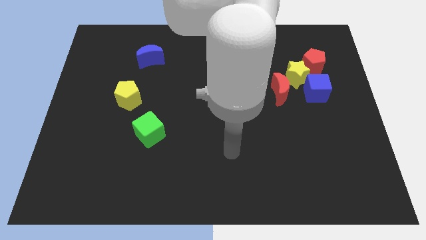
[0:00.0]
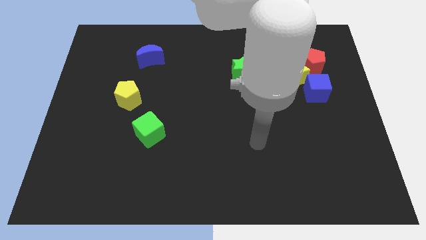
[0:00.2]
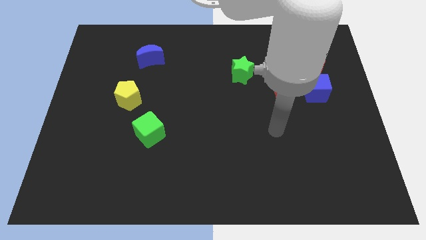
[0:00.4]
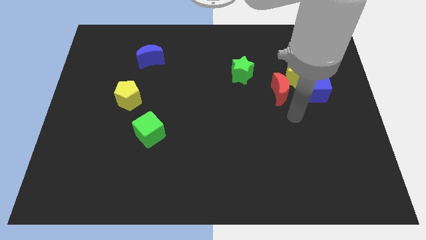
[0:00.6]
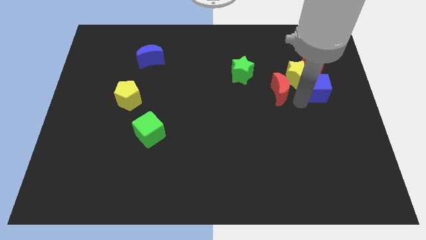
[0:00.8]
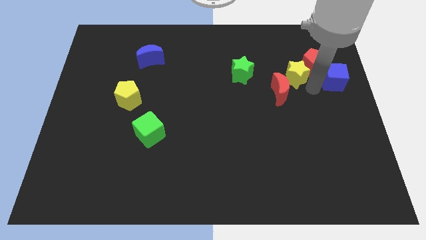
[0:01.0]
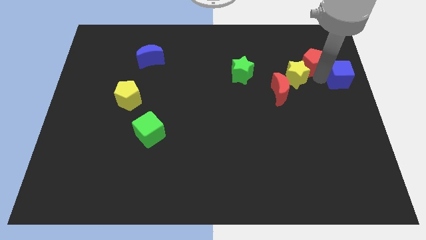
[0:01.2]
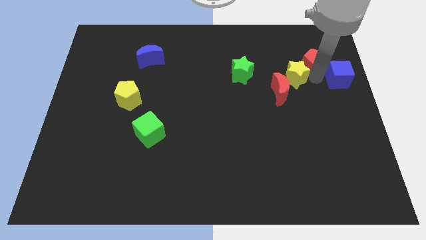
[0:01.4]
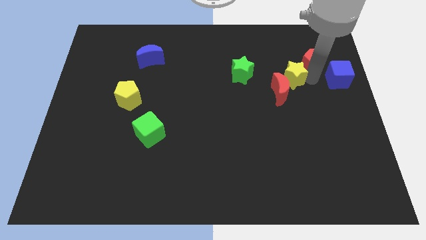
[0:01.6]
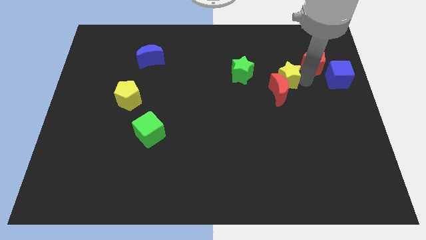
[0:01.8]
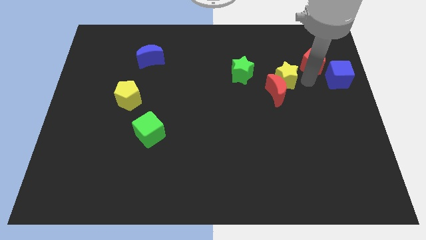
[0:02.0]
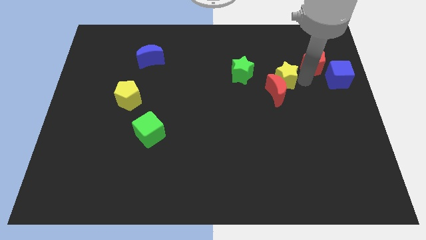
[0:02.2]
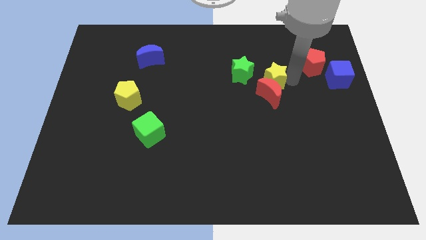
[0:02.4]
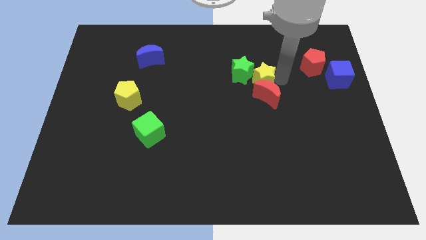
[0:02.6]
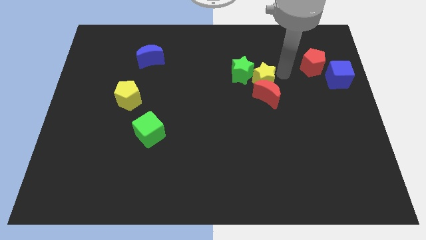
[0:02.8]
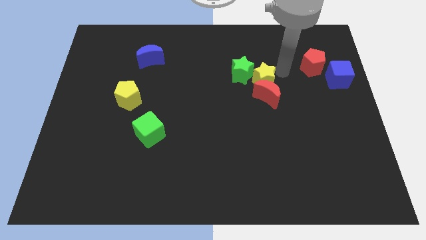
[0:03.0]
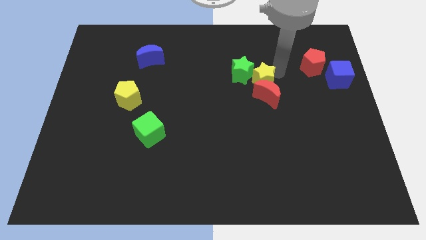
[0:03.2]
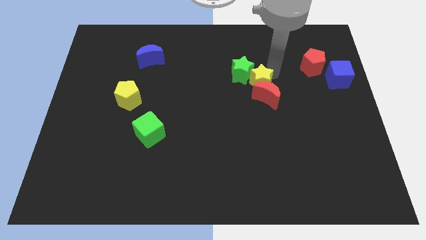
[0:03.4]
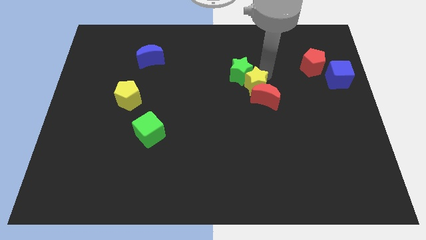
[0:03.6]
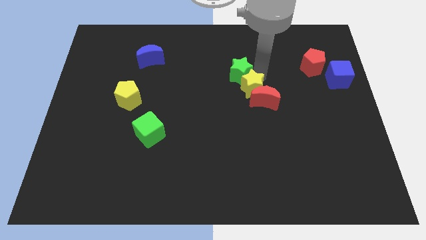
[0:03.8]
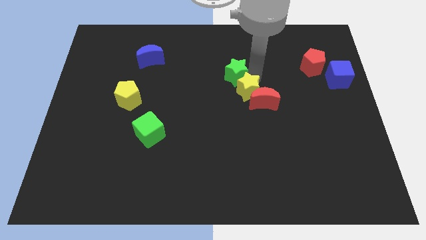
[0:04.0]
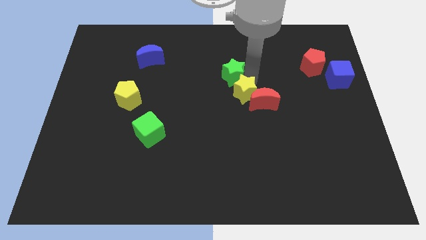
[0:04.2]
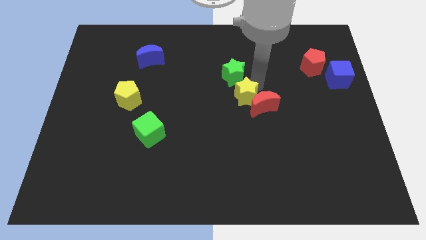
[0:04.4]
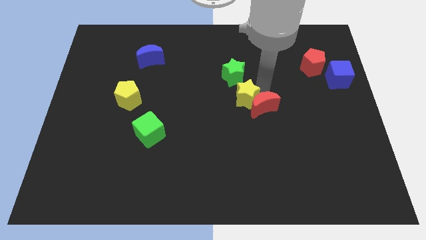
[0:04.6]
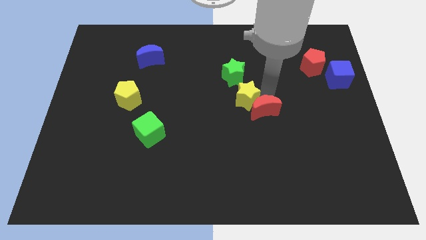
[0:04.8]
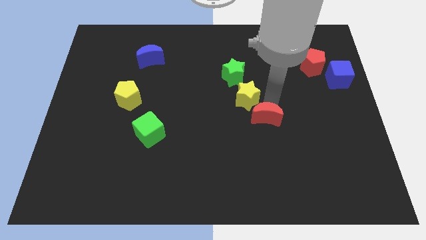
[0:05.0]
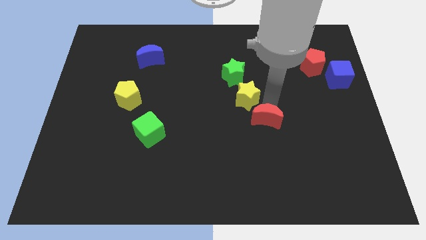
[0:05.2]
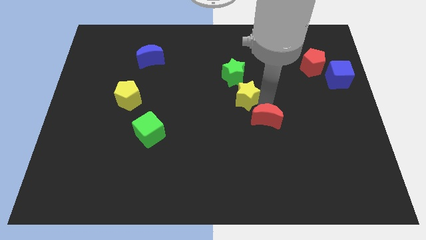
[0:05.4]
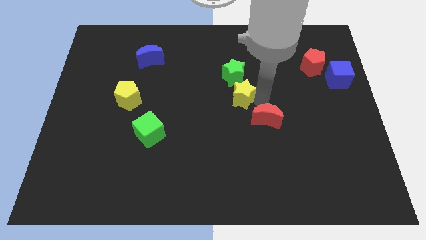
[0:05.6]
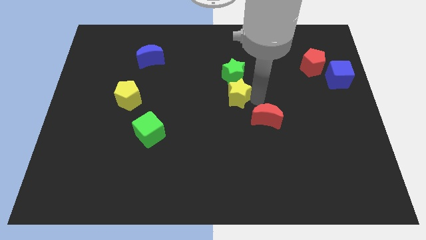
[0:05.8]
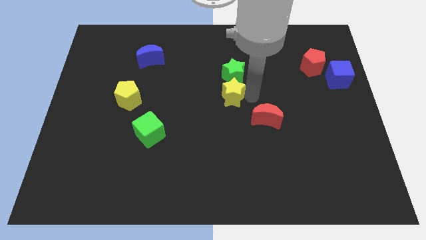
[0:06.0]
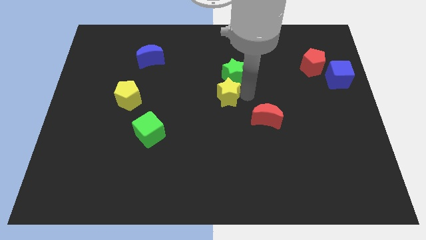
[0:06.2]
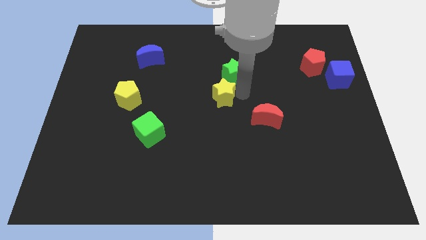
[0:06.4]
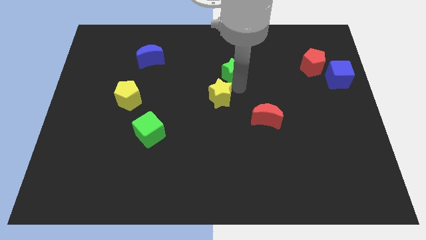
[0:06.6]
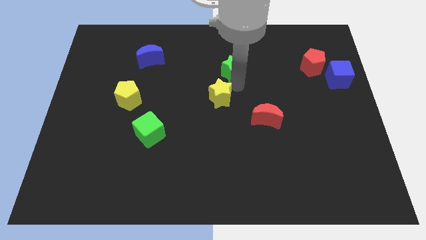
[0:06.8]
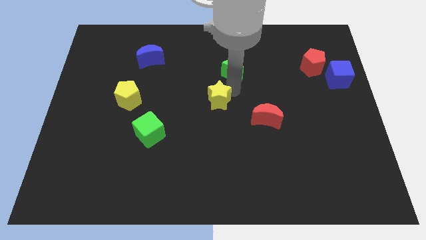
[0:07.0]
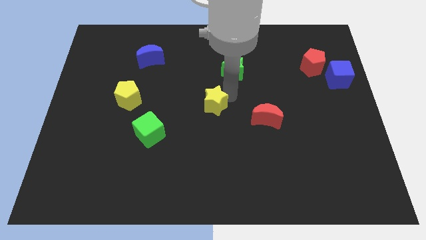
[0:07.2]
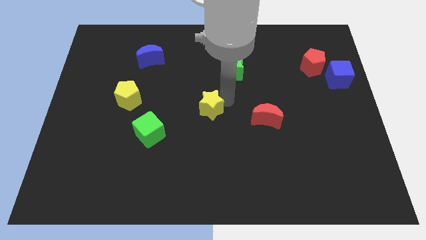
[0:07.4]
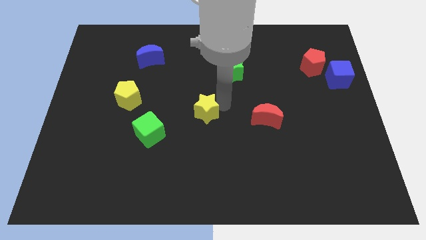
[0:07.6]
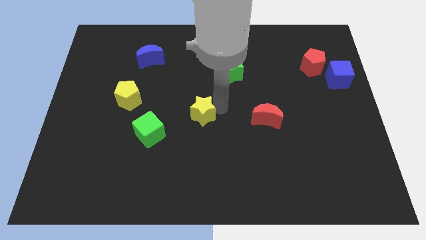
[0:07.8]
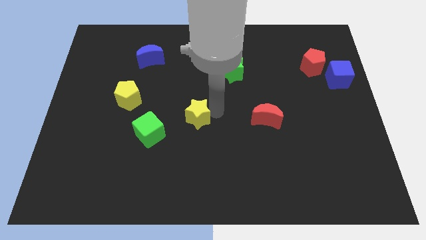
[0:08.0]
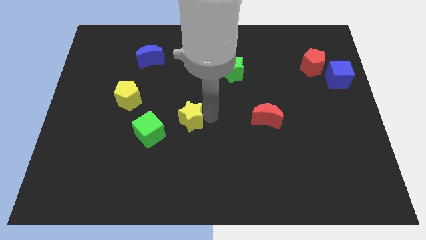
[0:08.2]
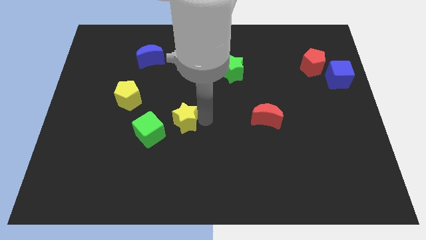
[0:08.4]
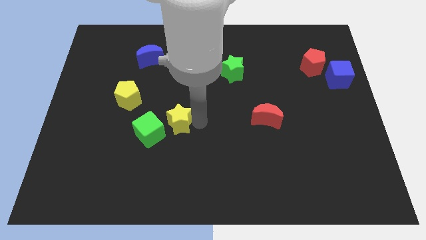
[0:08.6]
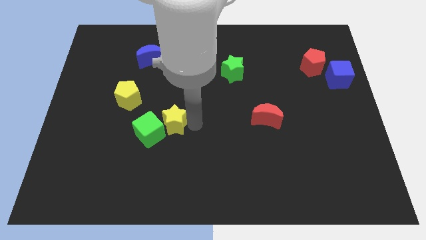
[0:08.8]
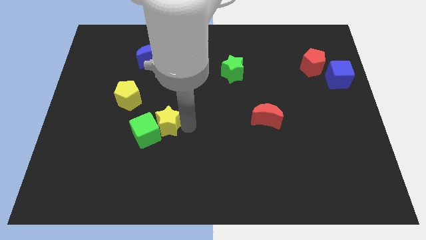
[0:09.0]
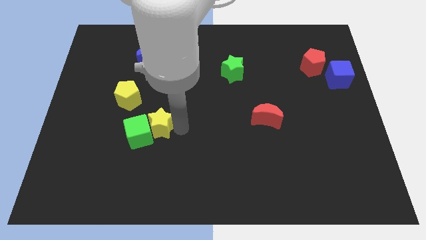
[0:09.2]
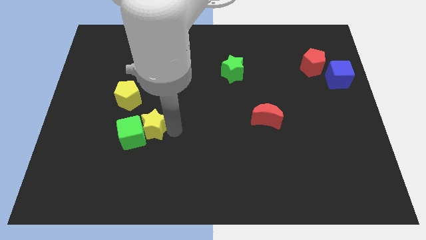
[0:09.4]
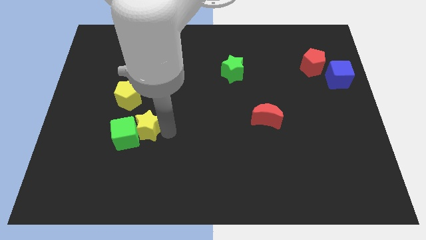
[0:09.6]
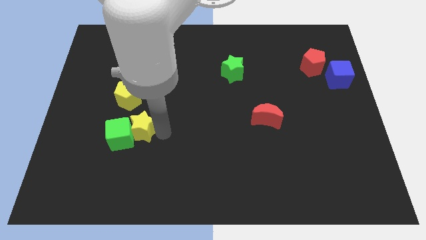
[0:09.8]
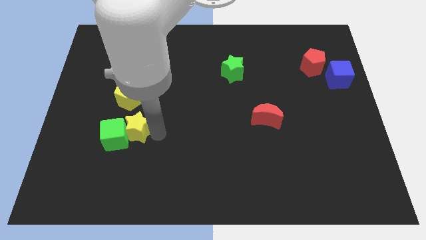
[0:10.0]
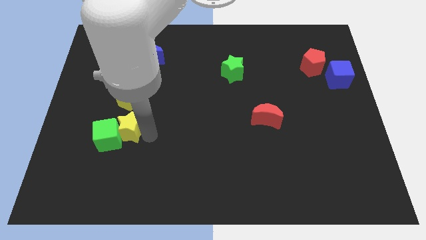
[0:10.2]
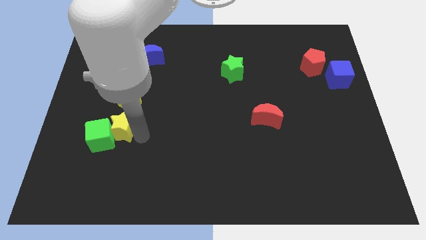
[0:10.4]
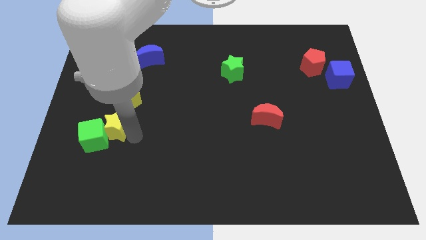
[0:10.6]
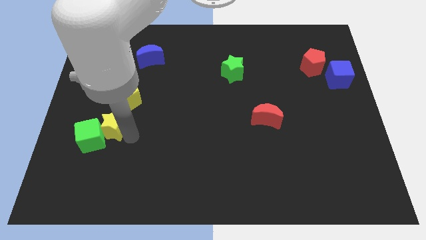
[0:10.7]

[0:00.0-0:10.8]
put the yellow star to the bottom left side of the yellow pentagon

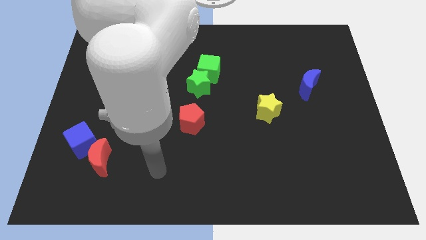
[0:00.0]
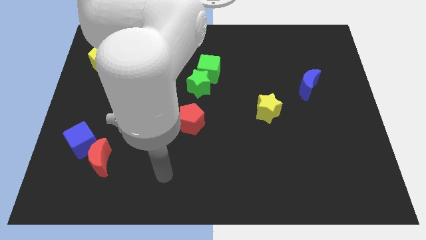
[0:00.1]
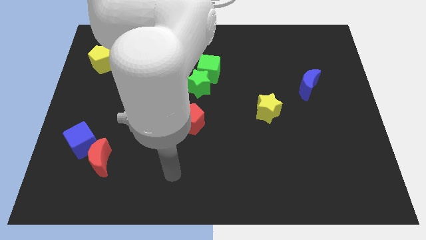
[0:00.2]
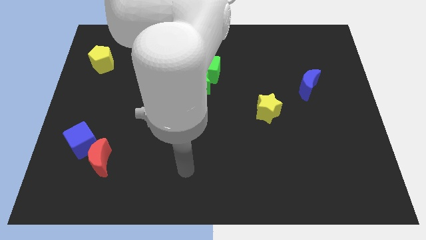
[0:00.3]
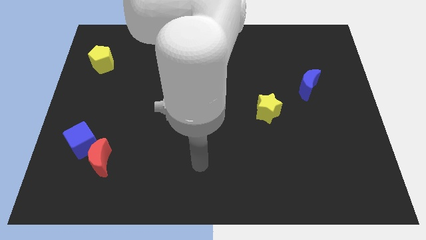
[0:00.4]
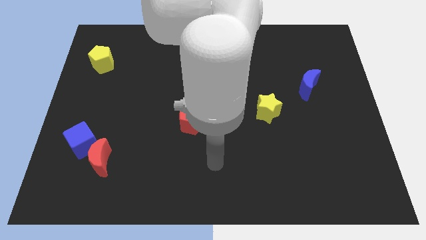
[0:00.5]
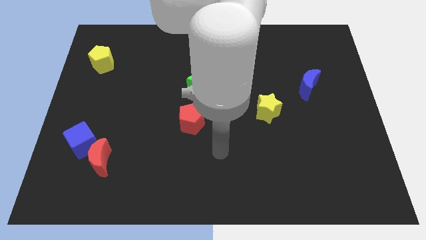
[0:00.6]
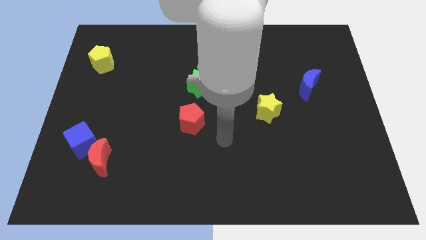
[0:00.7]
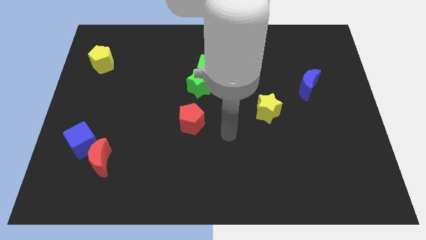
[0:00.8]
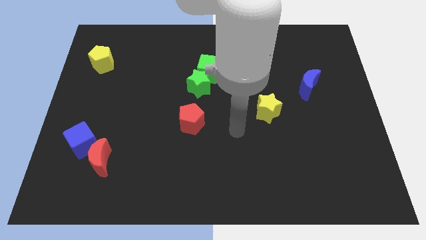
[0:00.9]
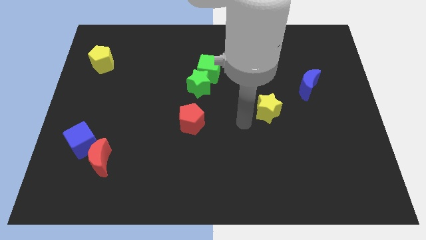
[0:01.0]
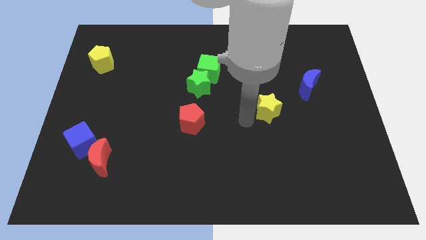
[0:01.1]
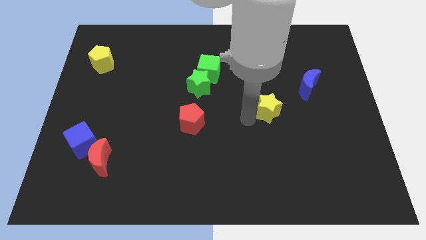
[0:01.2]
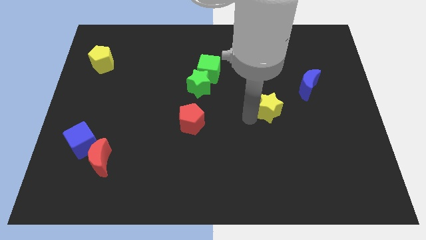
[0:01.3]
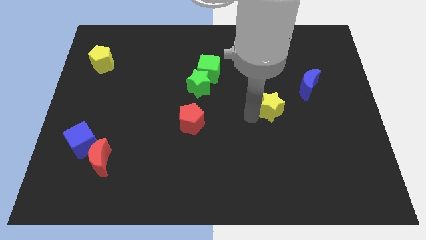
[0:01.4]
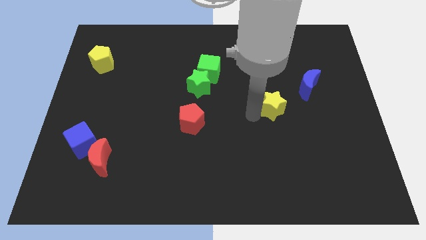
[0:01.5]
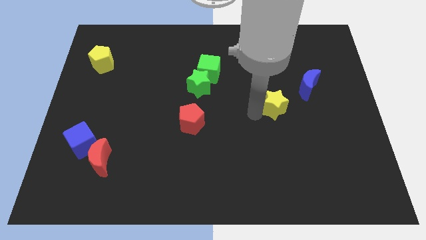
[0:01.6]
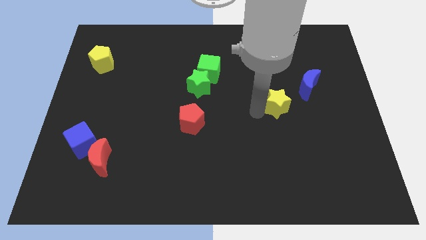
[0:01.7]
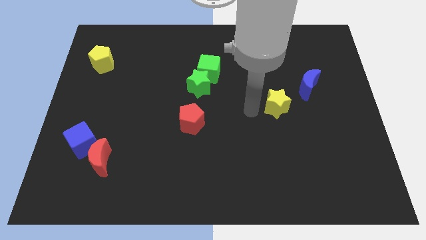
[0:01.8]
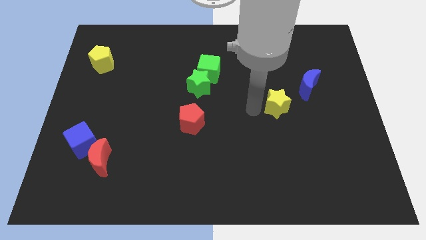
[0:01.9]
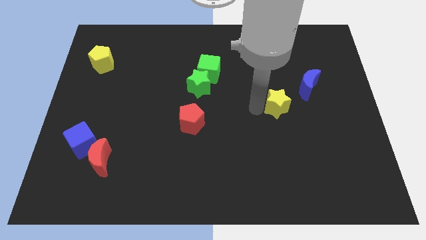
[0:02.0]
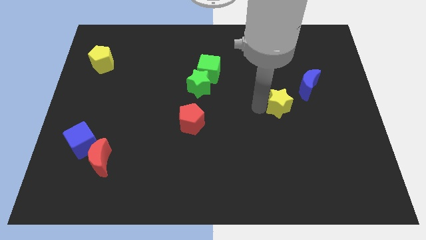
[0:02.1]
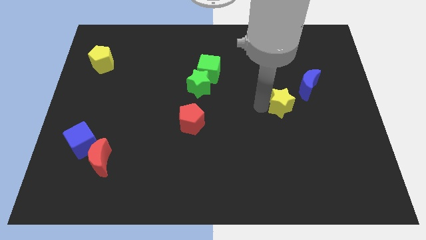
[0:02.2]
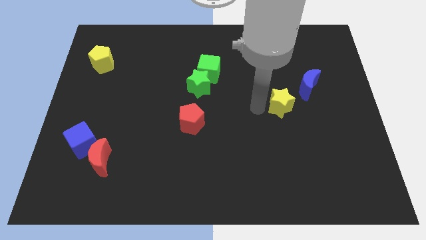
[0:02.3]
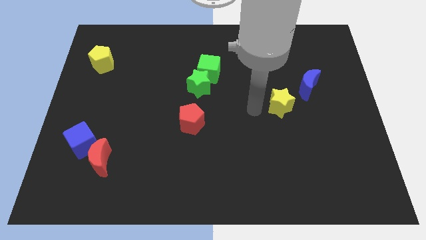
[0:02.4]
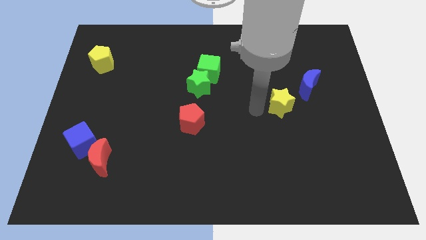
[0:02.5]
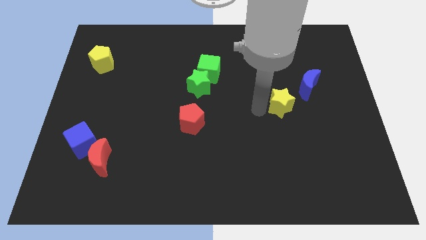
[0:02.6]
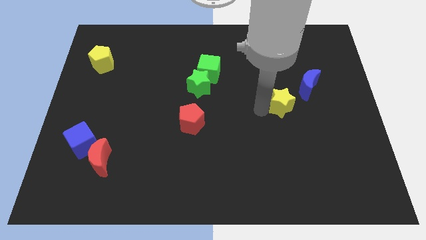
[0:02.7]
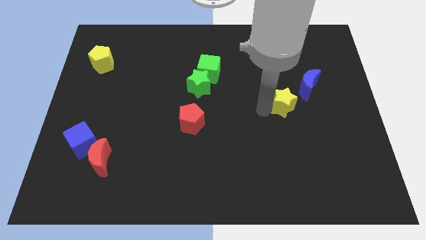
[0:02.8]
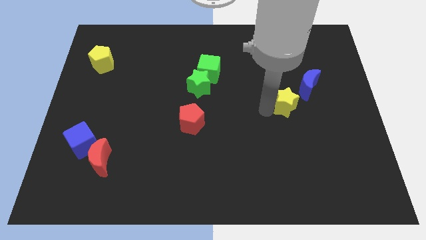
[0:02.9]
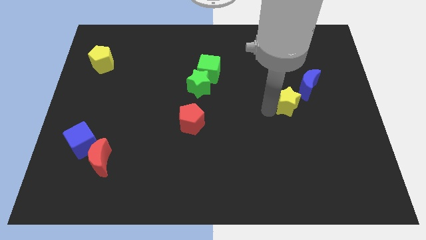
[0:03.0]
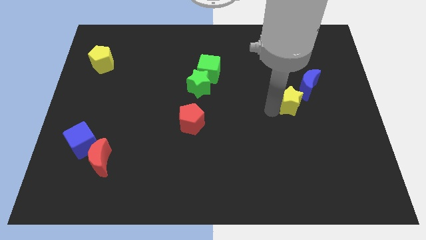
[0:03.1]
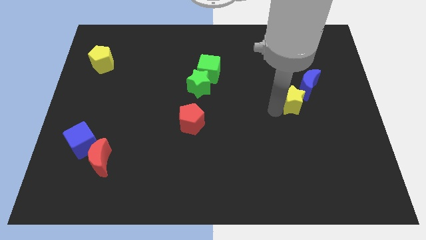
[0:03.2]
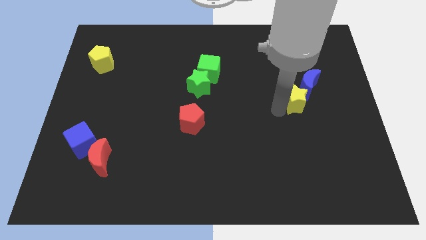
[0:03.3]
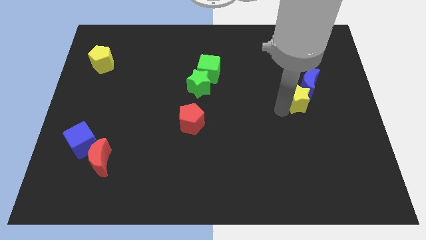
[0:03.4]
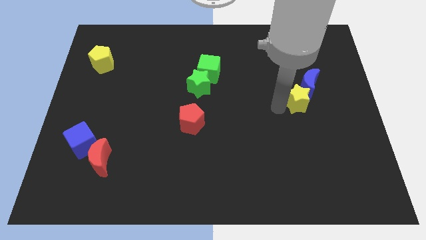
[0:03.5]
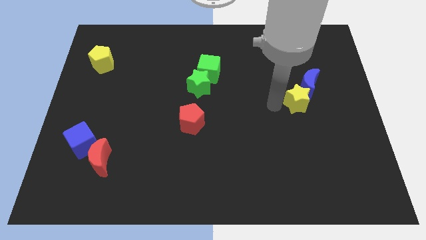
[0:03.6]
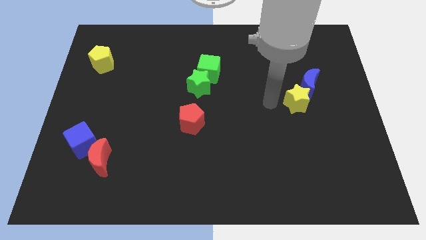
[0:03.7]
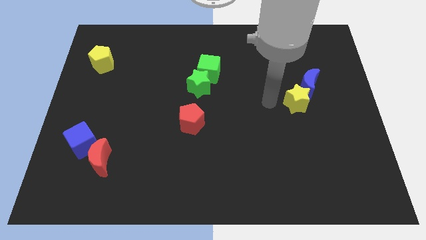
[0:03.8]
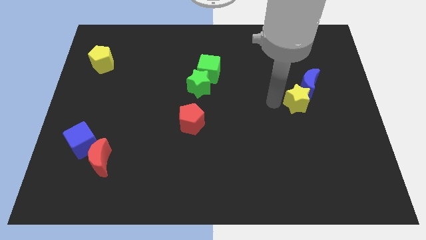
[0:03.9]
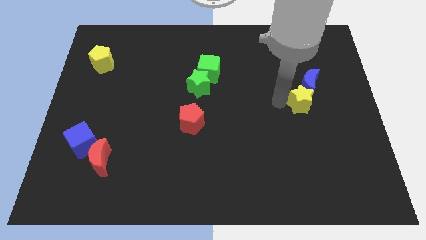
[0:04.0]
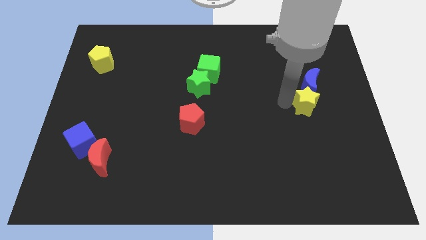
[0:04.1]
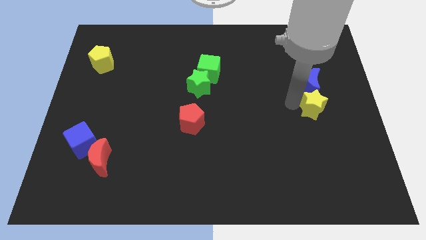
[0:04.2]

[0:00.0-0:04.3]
slide the yellow star diagonally down and to the right of the blue moon
